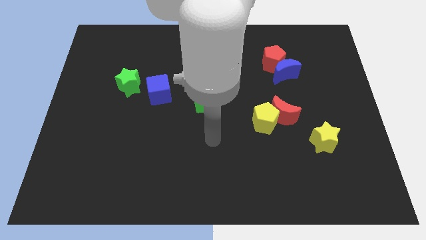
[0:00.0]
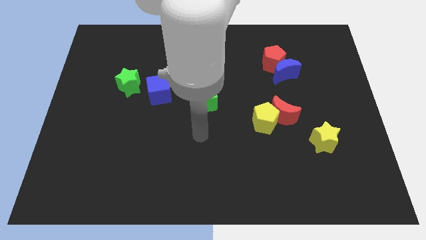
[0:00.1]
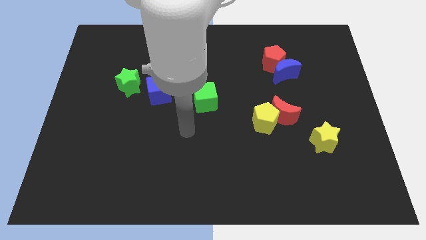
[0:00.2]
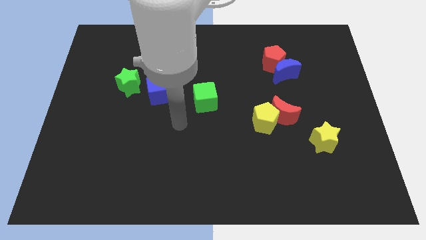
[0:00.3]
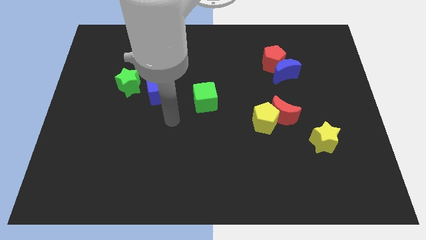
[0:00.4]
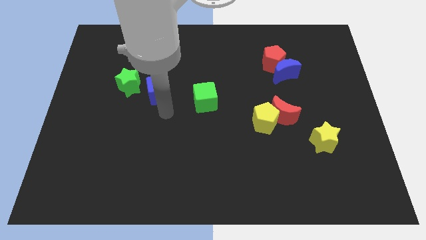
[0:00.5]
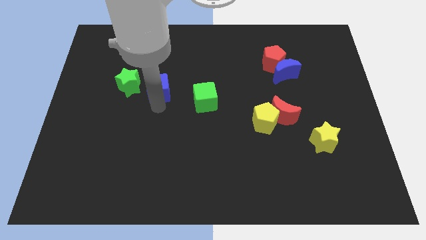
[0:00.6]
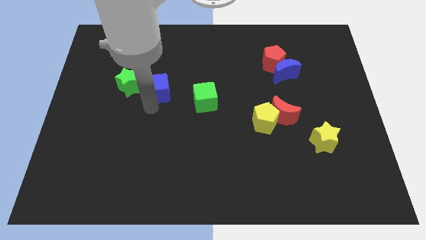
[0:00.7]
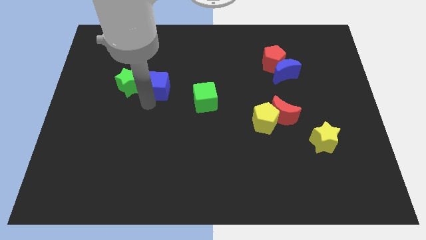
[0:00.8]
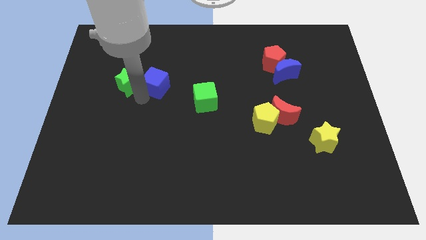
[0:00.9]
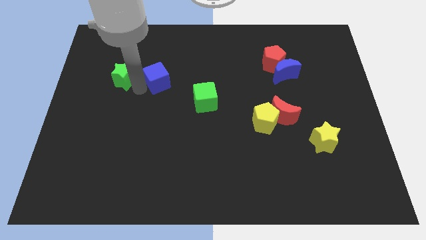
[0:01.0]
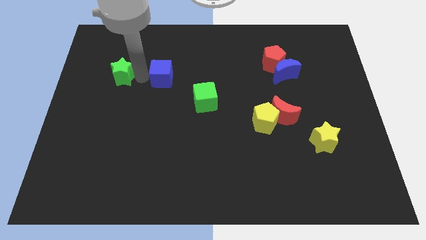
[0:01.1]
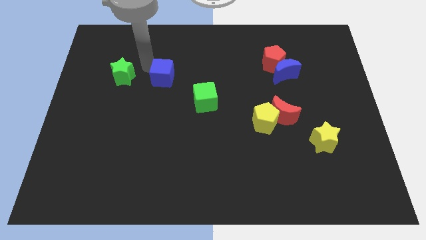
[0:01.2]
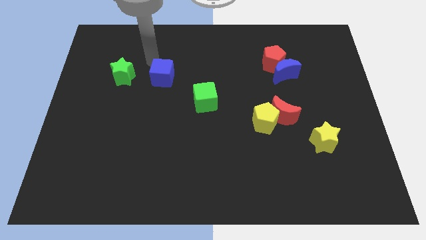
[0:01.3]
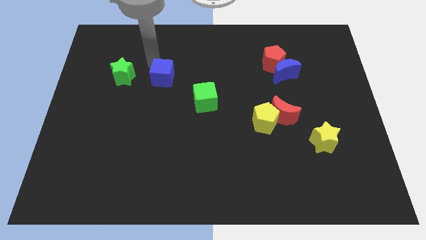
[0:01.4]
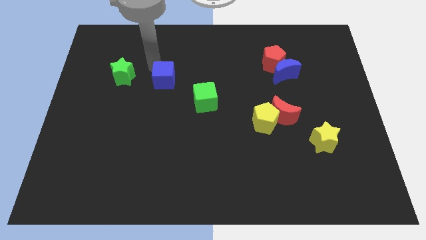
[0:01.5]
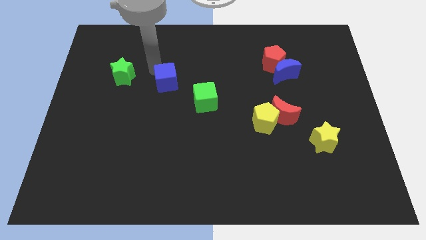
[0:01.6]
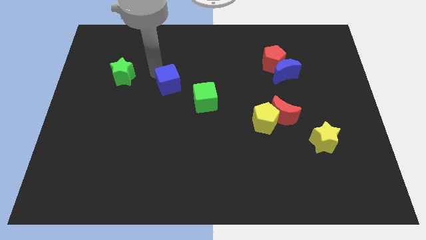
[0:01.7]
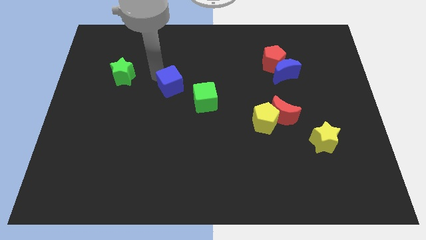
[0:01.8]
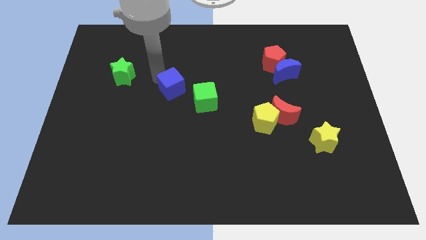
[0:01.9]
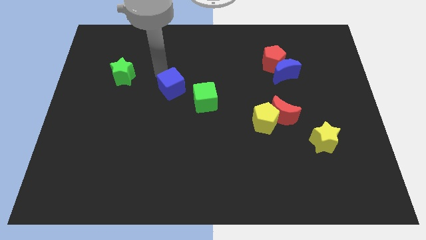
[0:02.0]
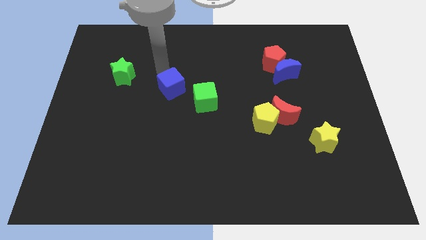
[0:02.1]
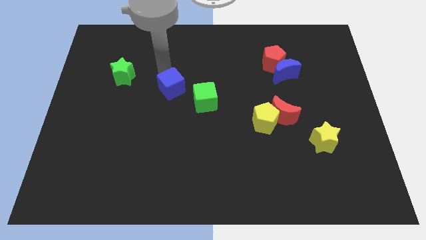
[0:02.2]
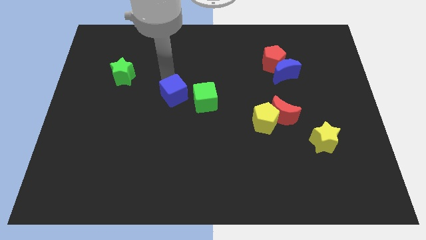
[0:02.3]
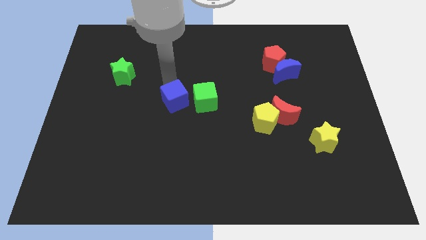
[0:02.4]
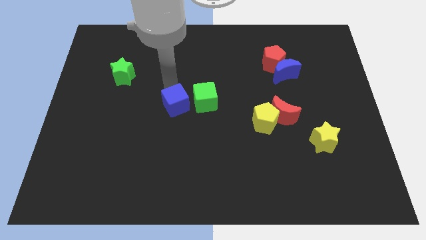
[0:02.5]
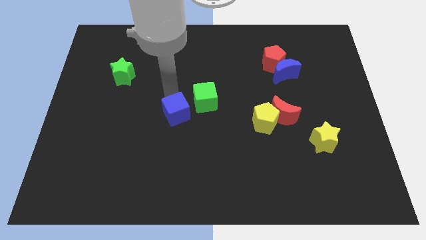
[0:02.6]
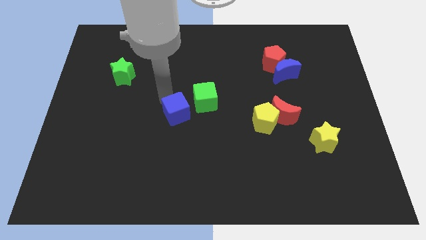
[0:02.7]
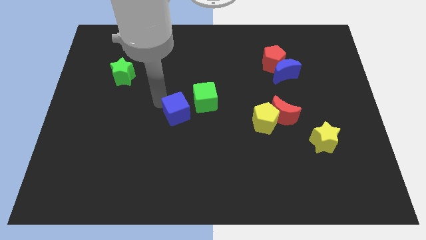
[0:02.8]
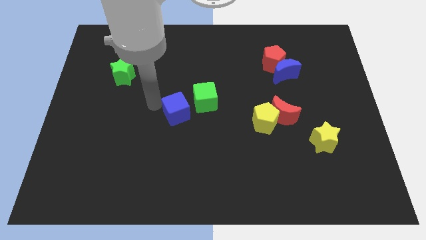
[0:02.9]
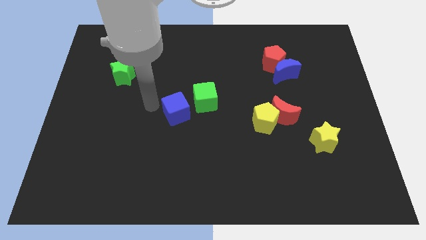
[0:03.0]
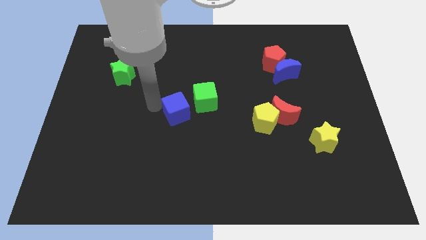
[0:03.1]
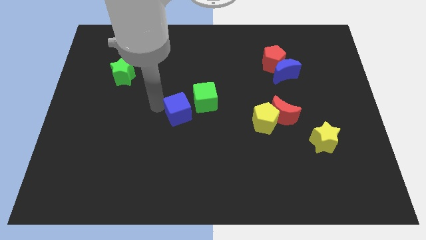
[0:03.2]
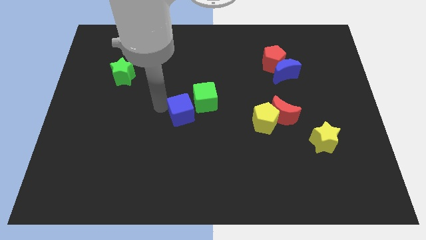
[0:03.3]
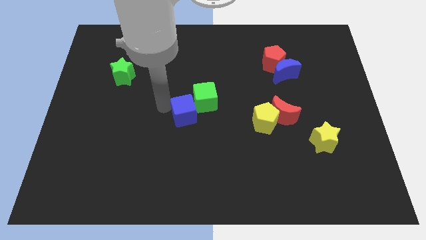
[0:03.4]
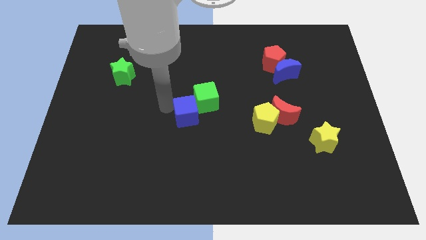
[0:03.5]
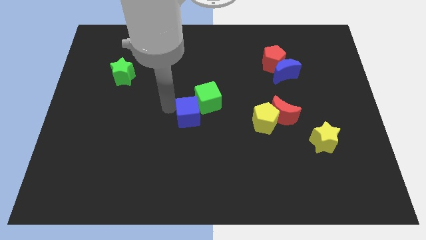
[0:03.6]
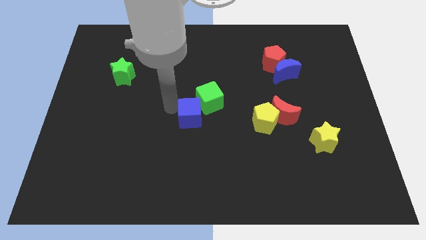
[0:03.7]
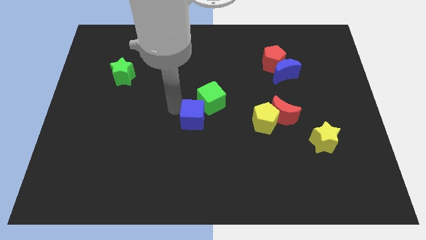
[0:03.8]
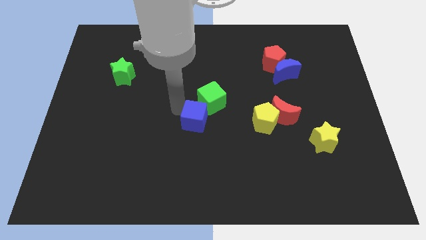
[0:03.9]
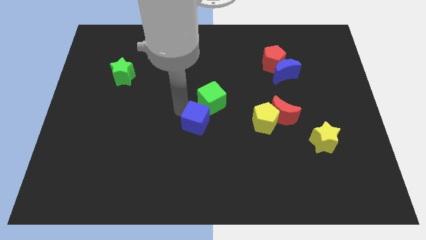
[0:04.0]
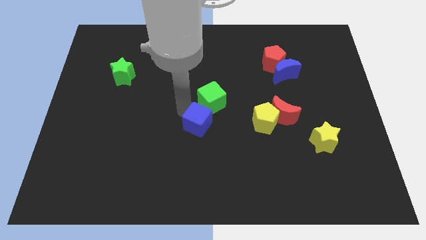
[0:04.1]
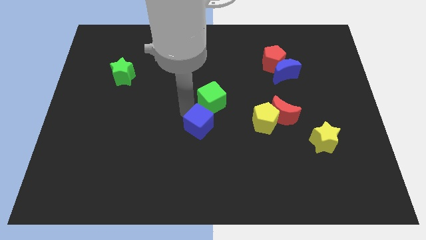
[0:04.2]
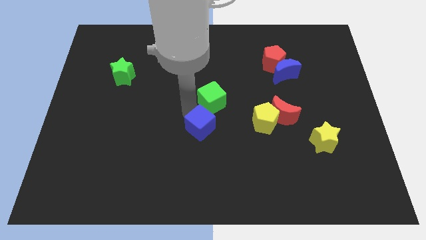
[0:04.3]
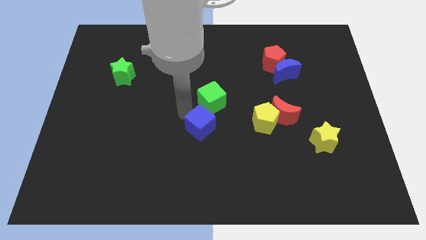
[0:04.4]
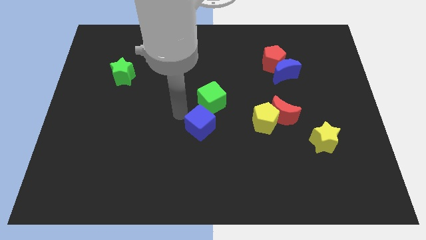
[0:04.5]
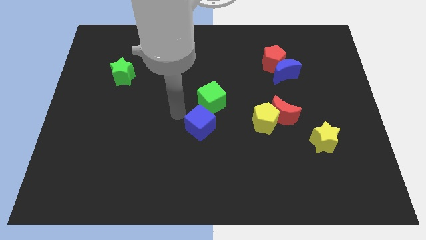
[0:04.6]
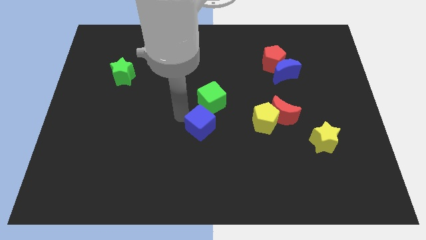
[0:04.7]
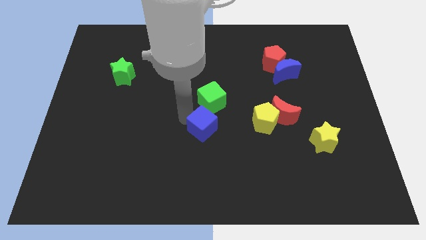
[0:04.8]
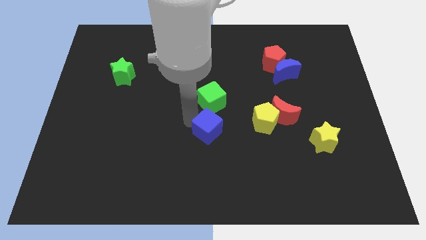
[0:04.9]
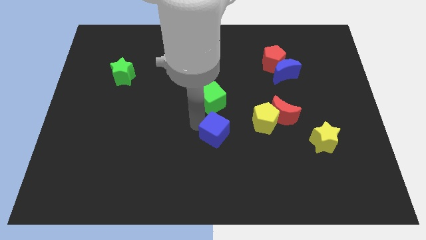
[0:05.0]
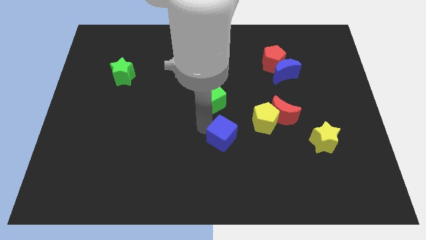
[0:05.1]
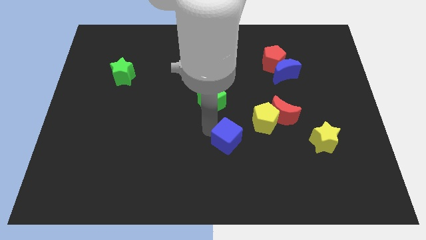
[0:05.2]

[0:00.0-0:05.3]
slide the blue cube down and then to the right

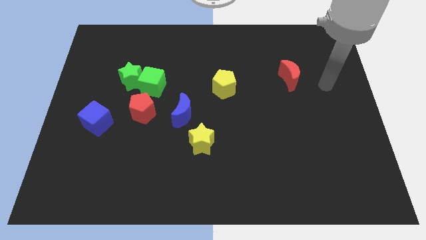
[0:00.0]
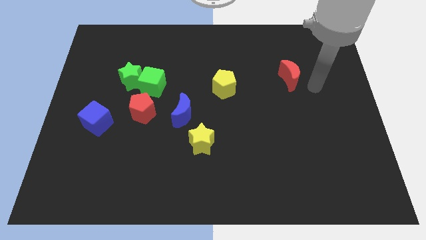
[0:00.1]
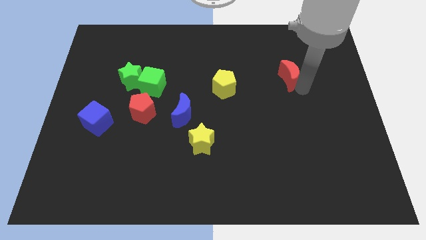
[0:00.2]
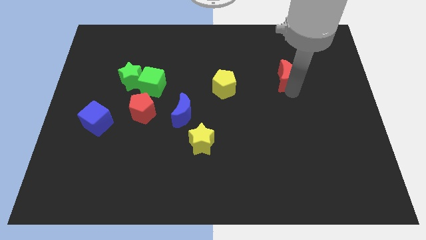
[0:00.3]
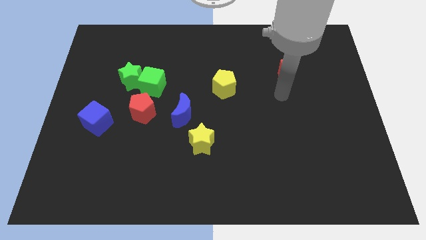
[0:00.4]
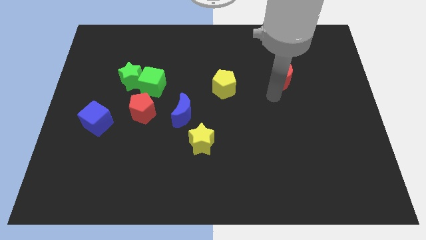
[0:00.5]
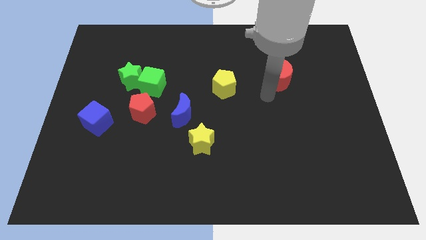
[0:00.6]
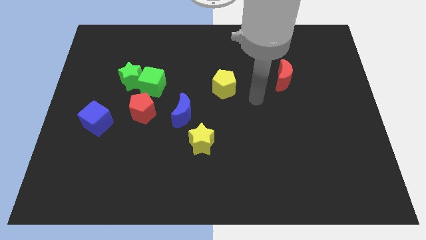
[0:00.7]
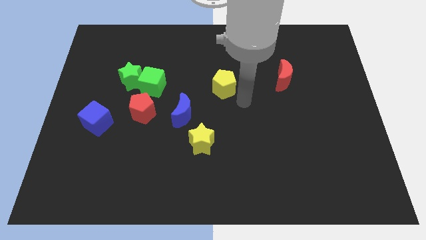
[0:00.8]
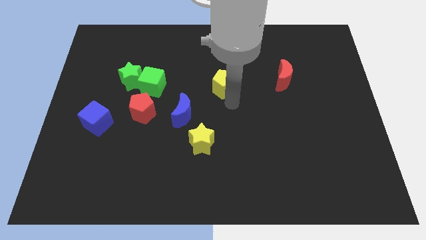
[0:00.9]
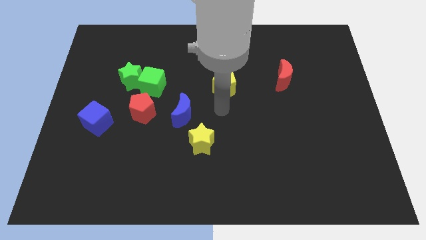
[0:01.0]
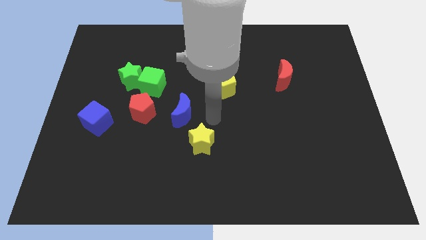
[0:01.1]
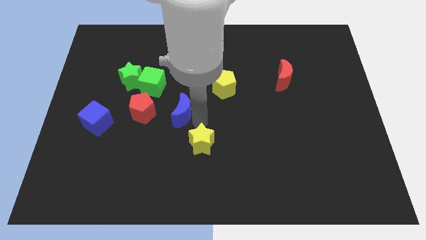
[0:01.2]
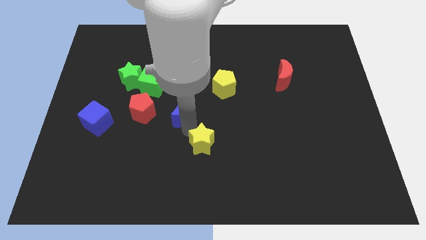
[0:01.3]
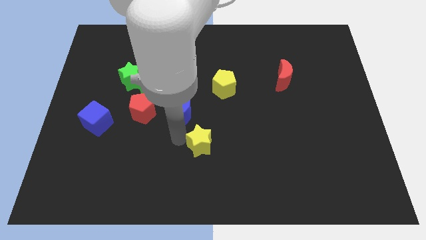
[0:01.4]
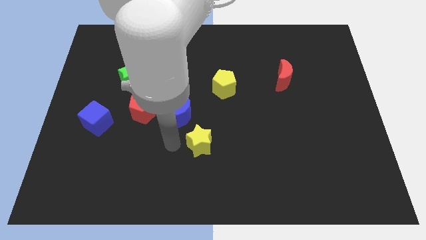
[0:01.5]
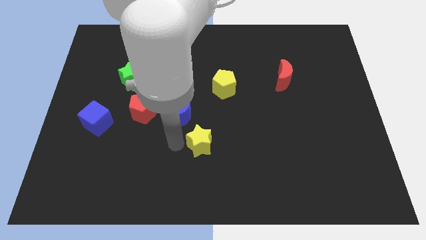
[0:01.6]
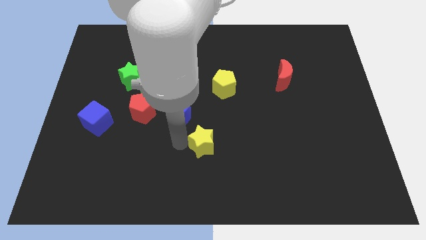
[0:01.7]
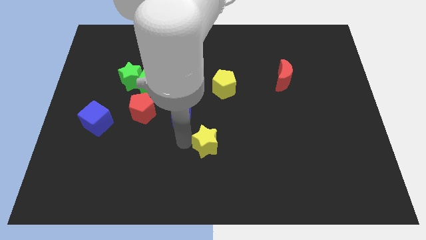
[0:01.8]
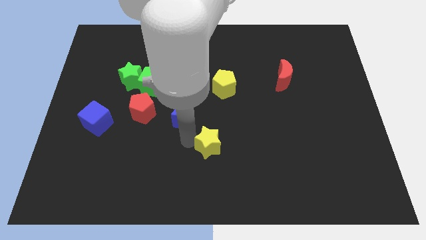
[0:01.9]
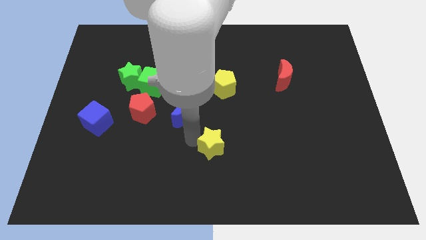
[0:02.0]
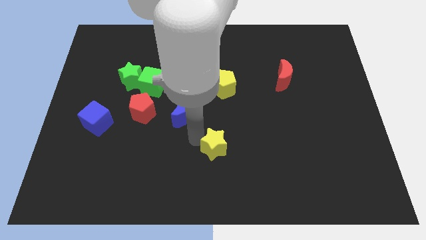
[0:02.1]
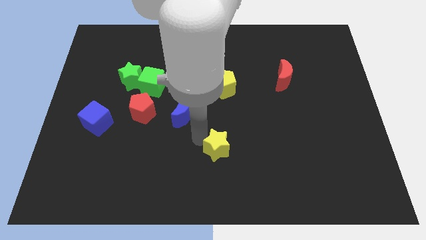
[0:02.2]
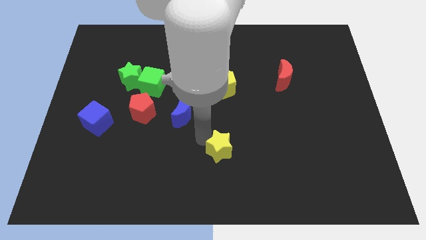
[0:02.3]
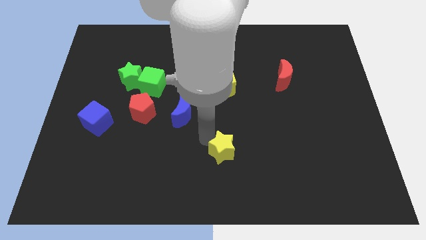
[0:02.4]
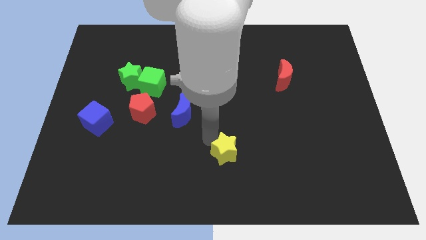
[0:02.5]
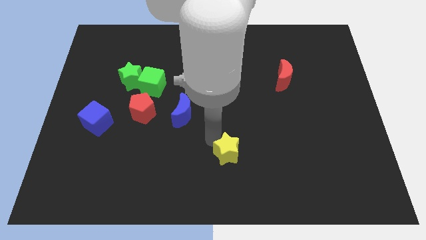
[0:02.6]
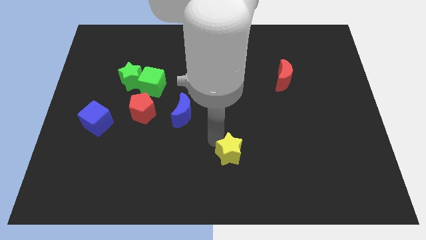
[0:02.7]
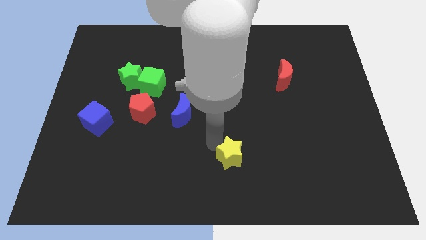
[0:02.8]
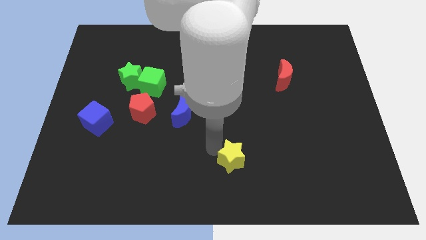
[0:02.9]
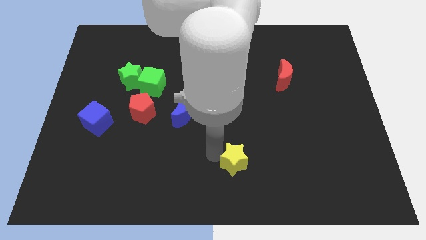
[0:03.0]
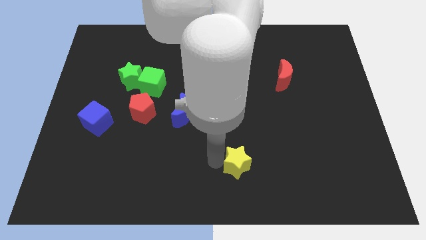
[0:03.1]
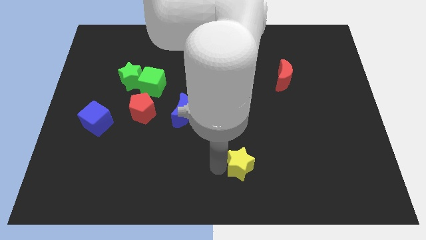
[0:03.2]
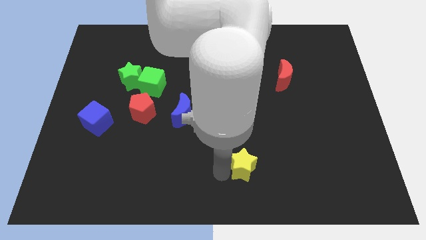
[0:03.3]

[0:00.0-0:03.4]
push the yellow star a little right
